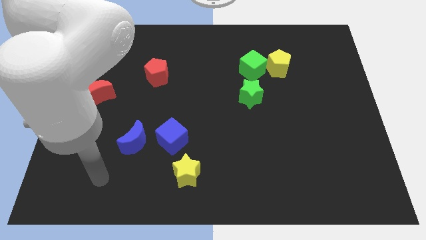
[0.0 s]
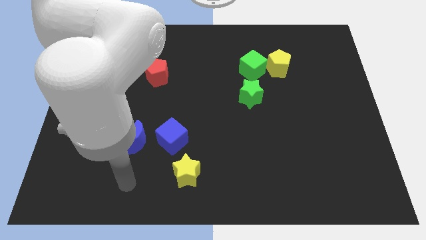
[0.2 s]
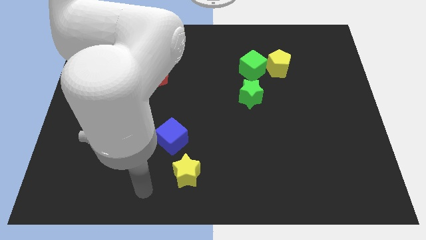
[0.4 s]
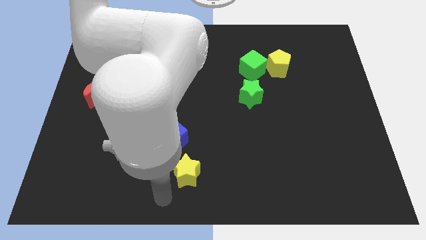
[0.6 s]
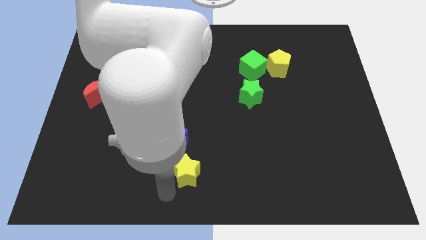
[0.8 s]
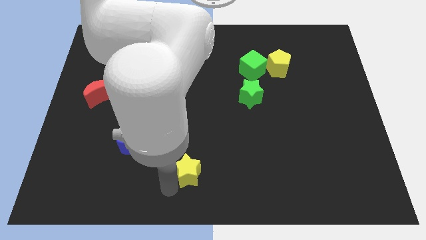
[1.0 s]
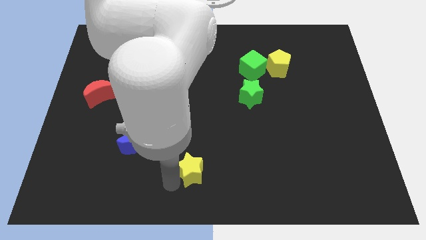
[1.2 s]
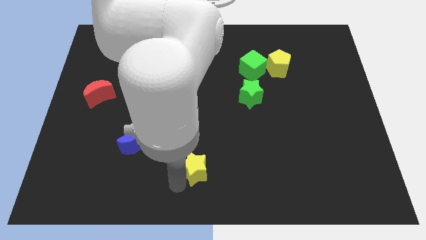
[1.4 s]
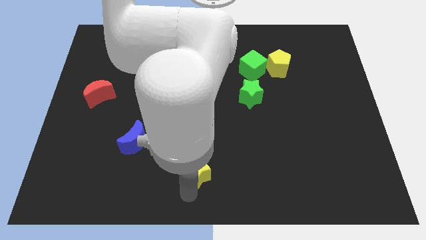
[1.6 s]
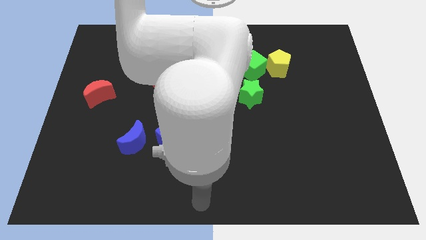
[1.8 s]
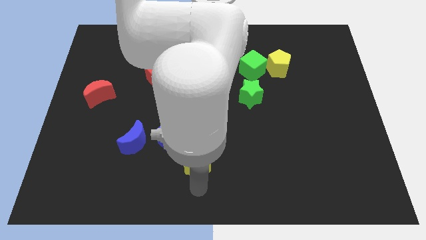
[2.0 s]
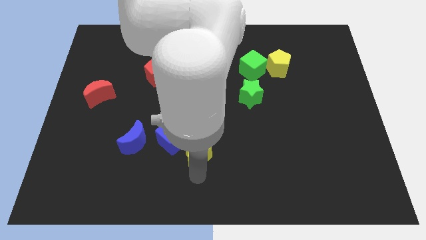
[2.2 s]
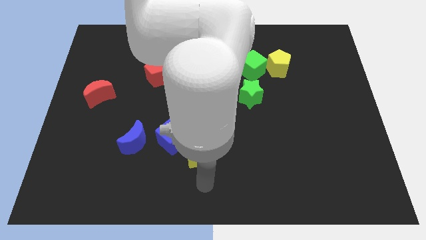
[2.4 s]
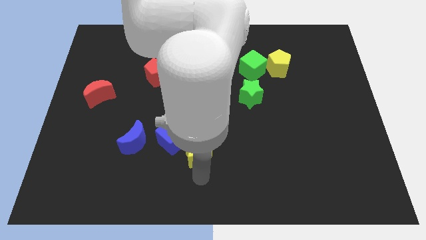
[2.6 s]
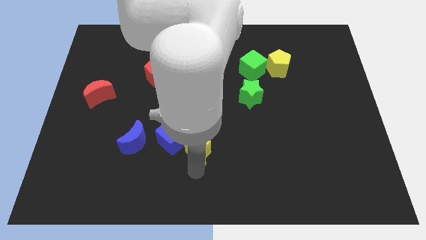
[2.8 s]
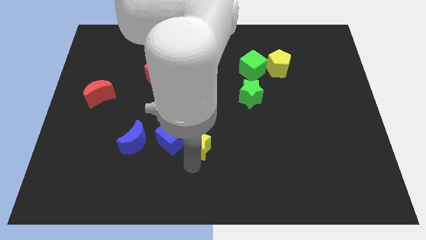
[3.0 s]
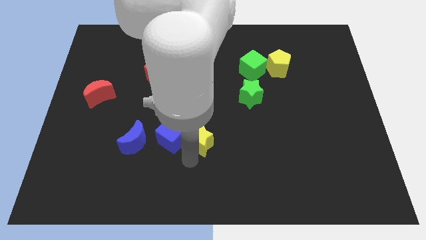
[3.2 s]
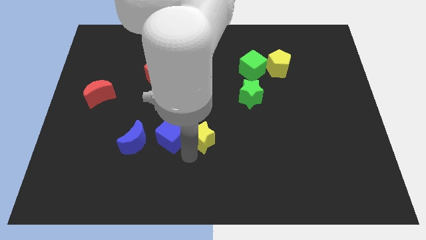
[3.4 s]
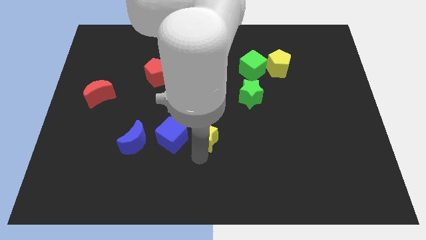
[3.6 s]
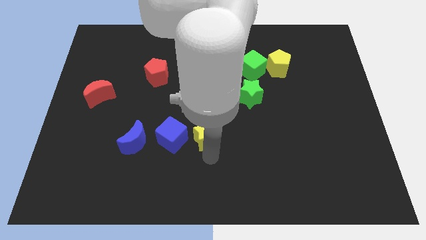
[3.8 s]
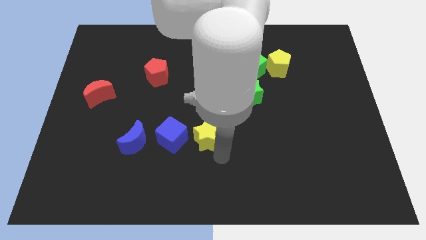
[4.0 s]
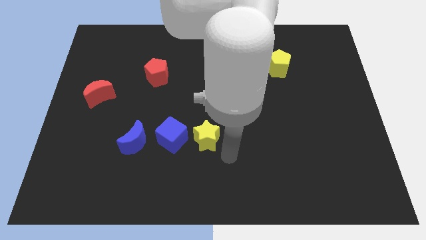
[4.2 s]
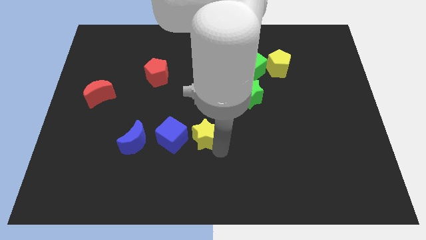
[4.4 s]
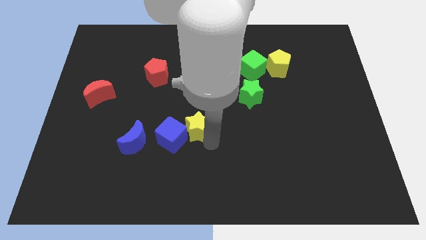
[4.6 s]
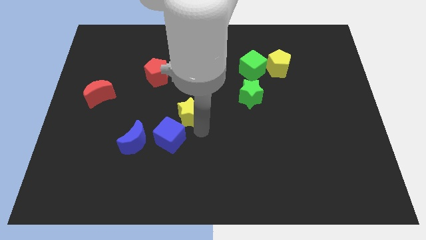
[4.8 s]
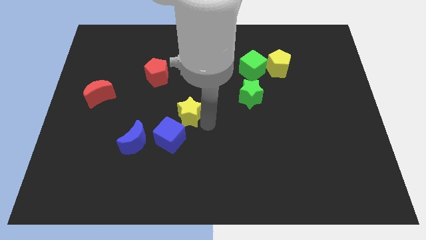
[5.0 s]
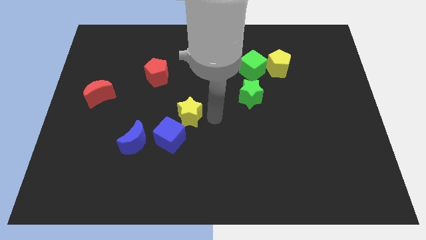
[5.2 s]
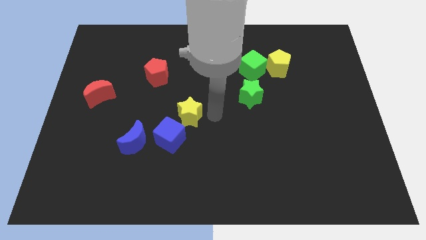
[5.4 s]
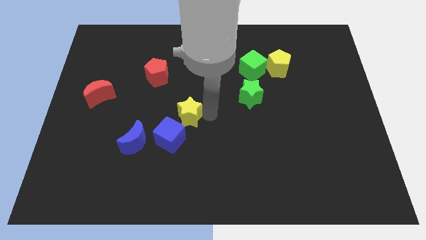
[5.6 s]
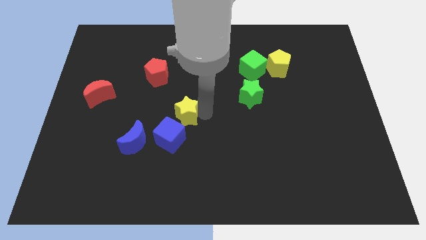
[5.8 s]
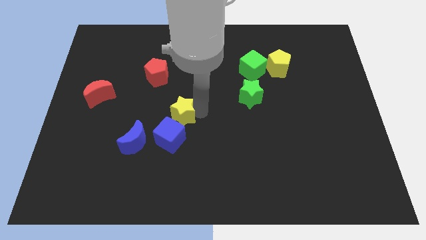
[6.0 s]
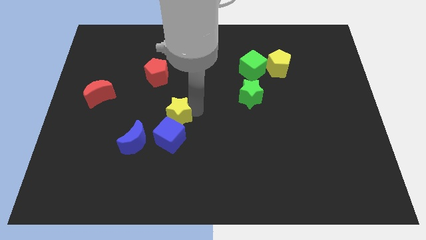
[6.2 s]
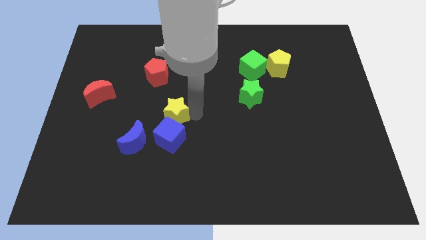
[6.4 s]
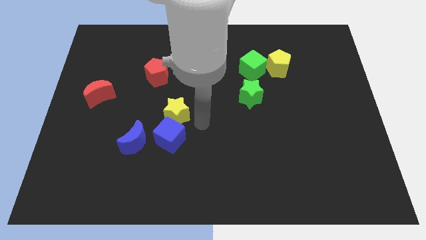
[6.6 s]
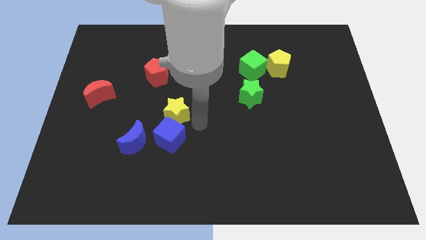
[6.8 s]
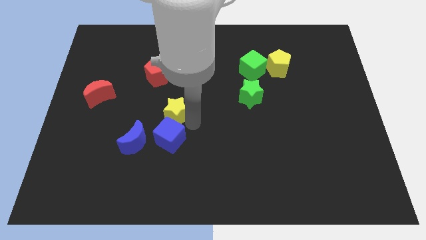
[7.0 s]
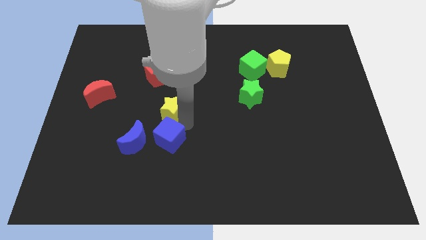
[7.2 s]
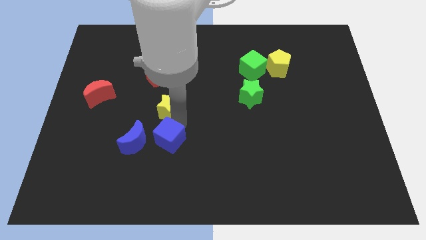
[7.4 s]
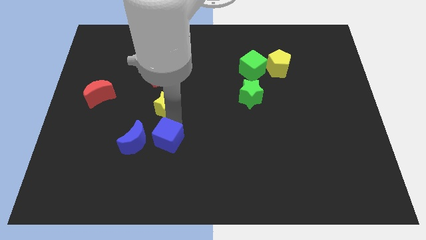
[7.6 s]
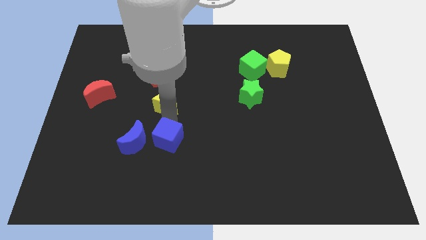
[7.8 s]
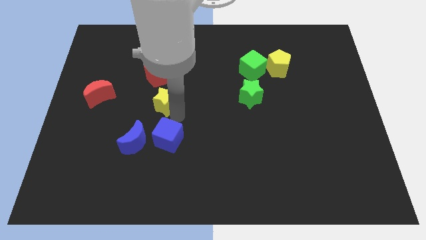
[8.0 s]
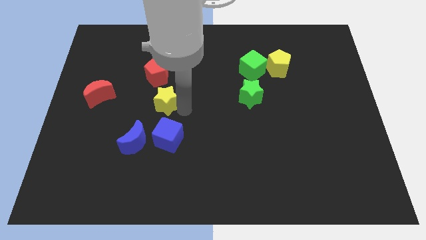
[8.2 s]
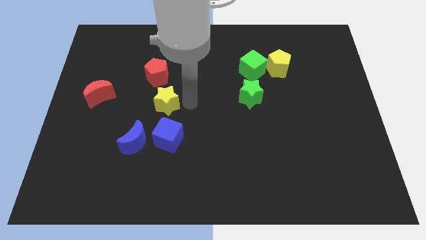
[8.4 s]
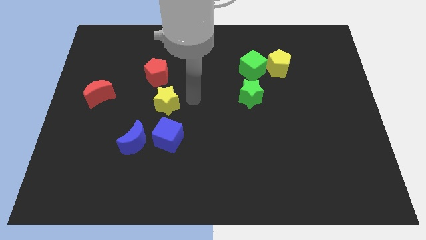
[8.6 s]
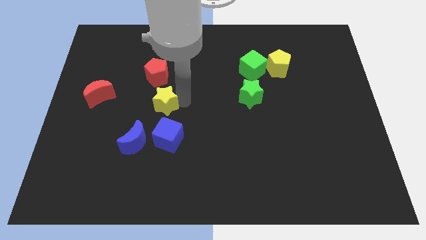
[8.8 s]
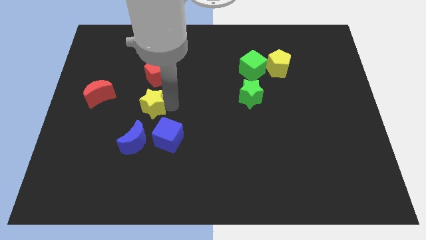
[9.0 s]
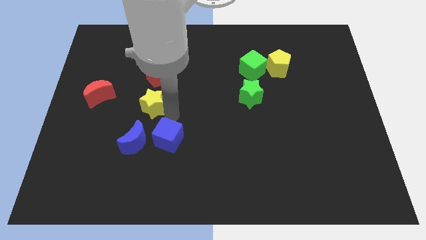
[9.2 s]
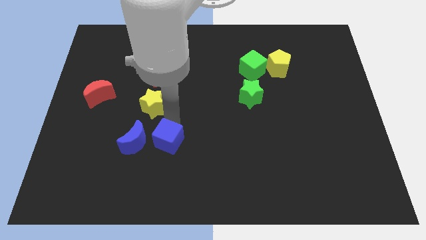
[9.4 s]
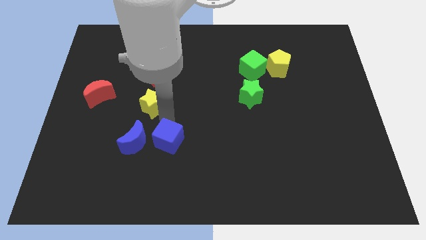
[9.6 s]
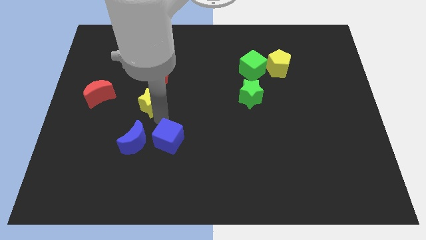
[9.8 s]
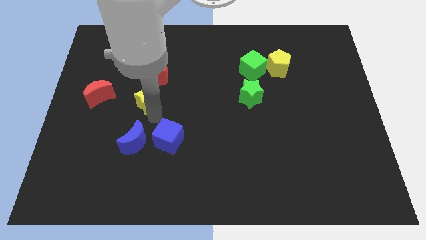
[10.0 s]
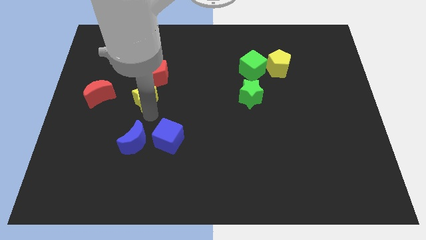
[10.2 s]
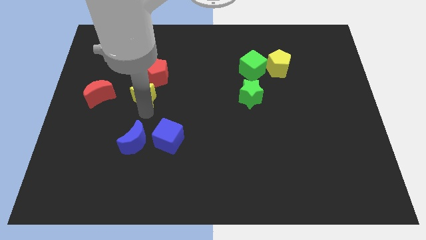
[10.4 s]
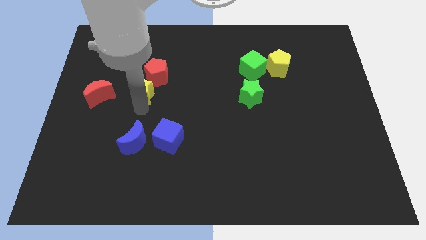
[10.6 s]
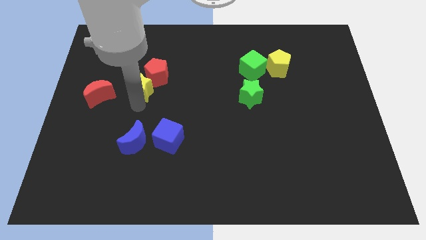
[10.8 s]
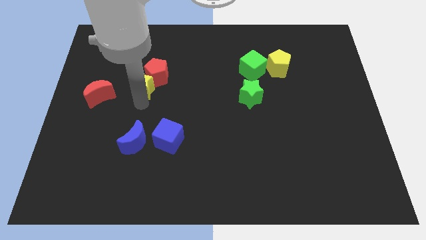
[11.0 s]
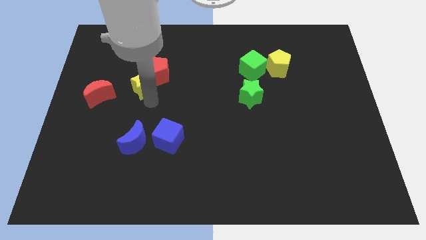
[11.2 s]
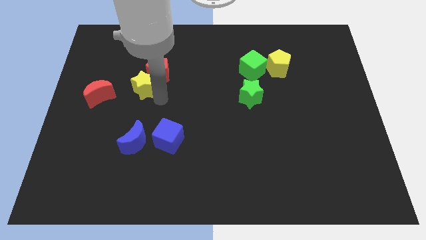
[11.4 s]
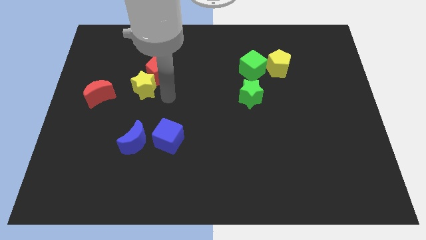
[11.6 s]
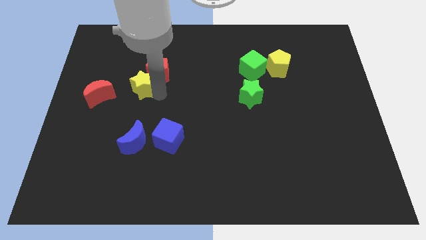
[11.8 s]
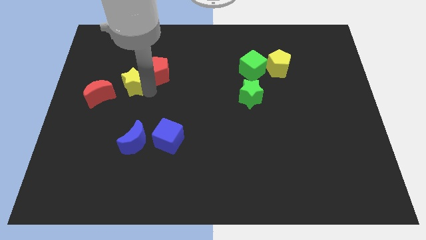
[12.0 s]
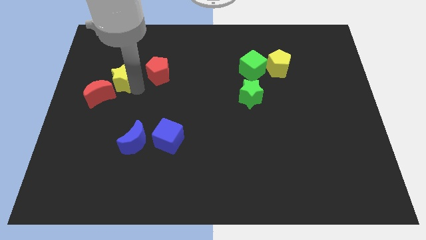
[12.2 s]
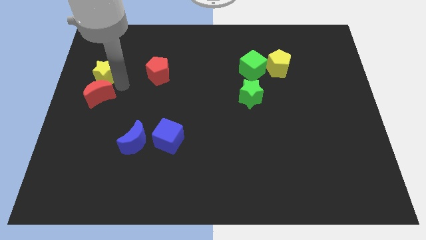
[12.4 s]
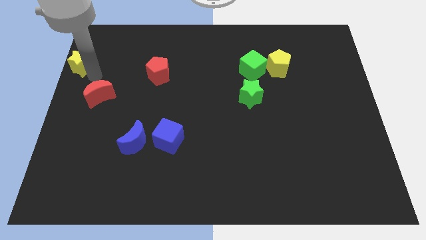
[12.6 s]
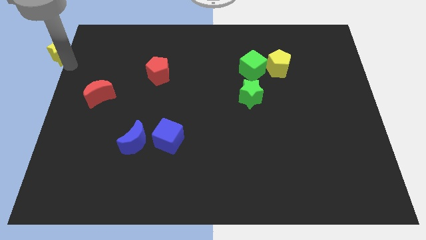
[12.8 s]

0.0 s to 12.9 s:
push the yellow star to the top left
